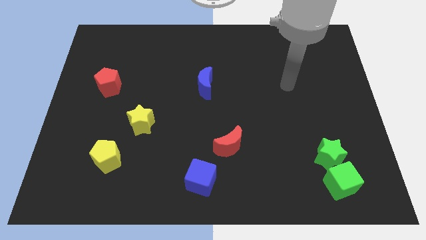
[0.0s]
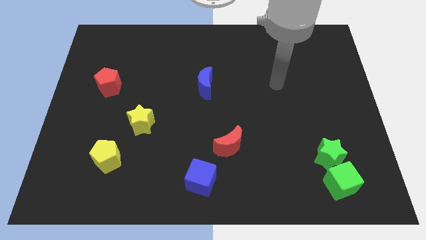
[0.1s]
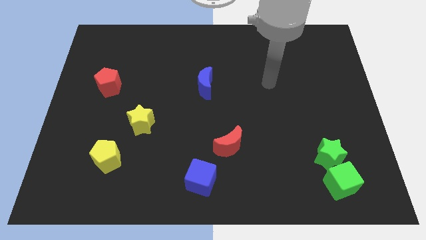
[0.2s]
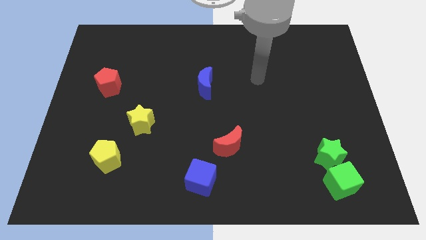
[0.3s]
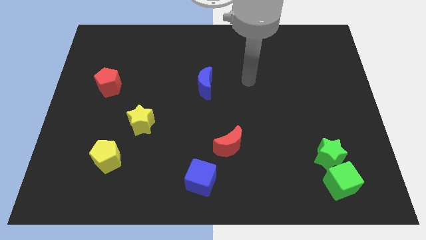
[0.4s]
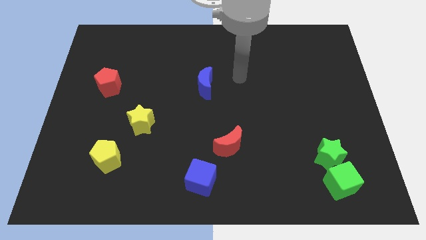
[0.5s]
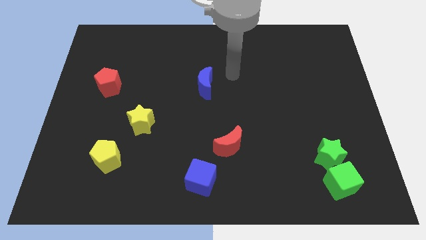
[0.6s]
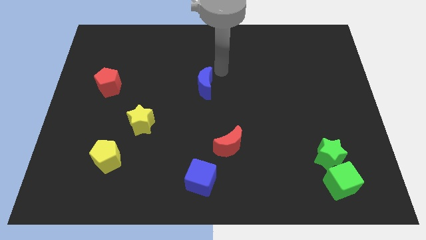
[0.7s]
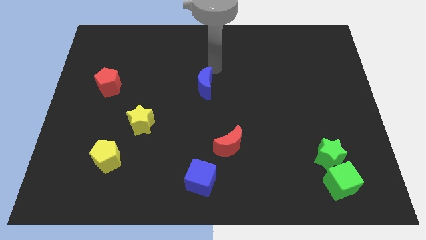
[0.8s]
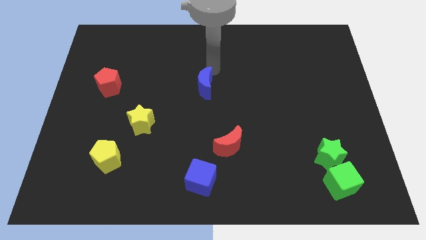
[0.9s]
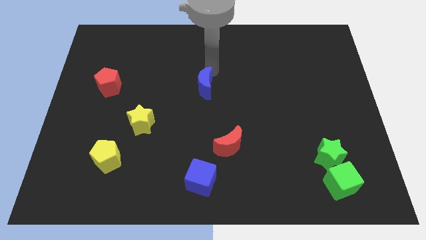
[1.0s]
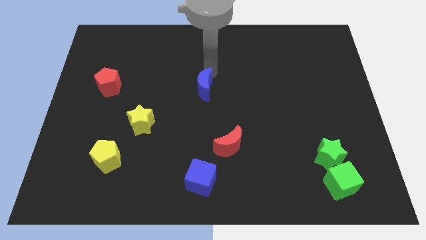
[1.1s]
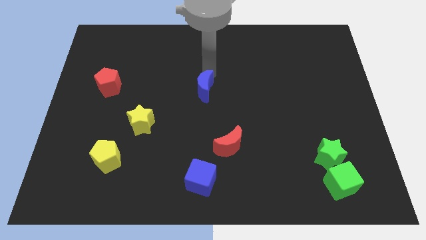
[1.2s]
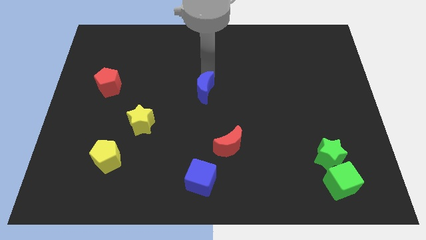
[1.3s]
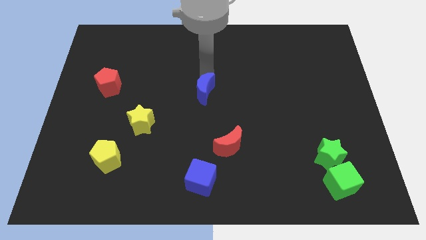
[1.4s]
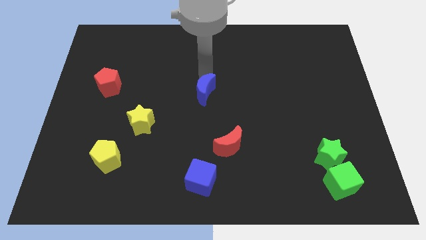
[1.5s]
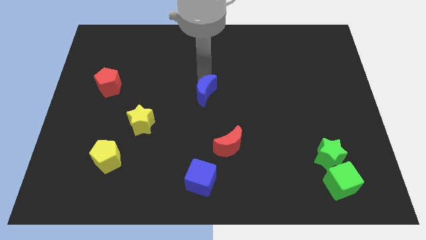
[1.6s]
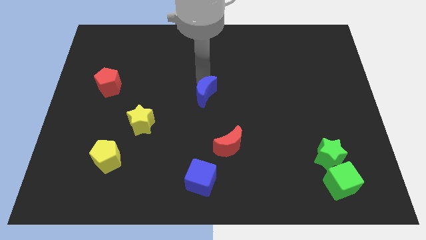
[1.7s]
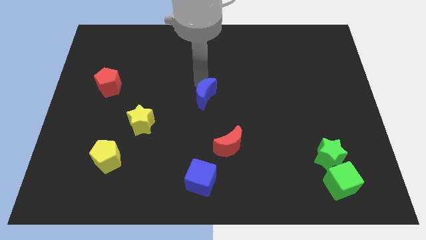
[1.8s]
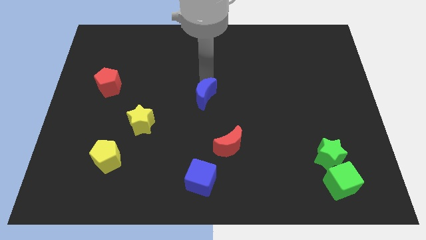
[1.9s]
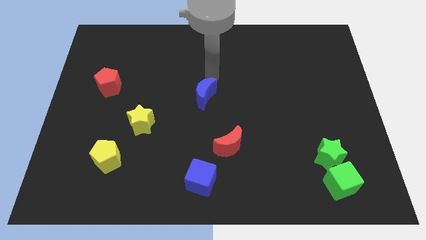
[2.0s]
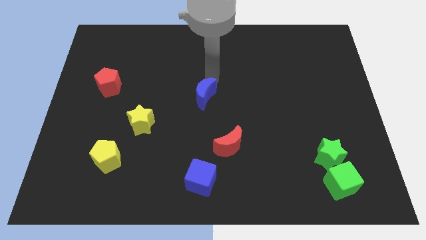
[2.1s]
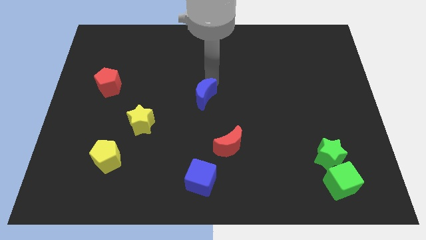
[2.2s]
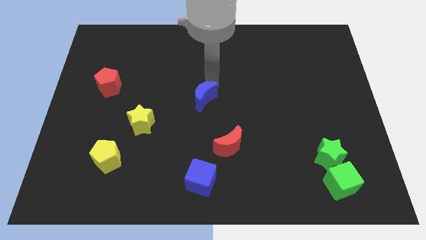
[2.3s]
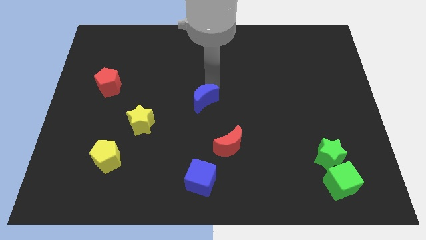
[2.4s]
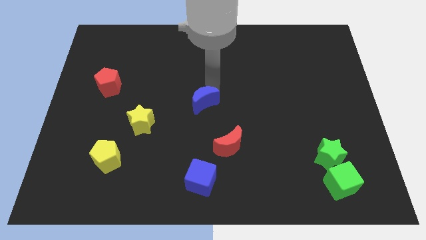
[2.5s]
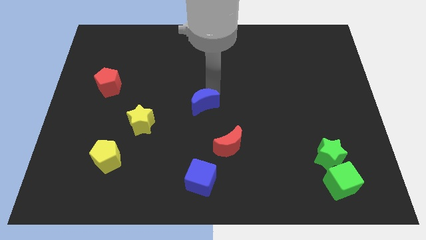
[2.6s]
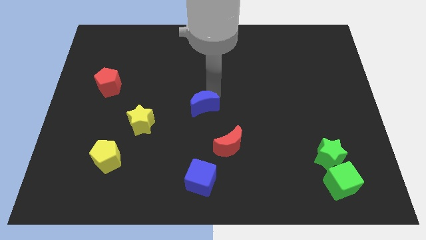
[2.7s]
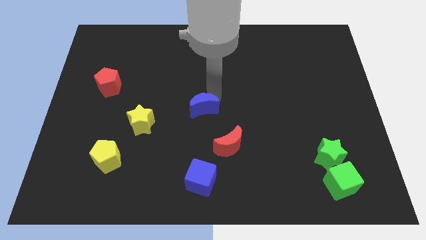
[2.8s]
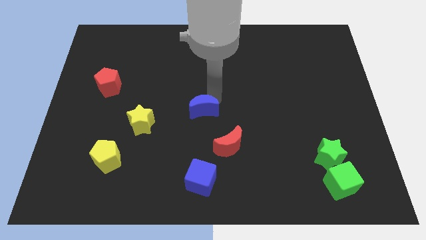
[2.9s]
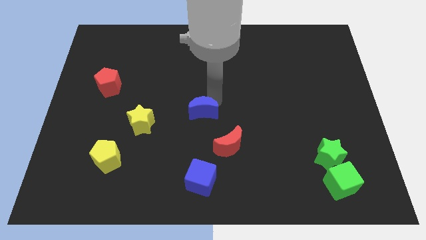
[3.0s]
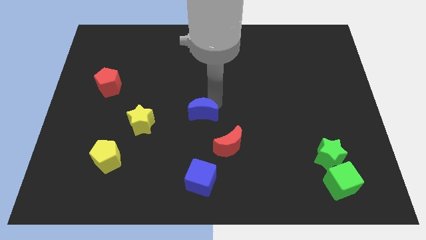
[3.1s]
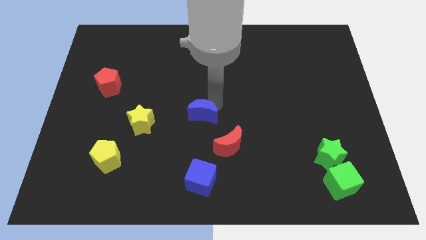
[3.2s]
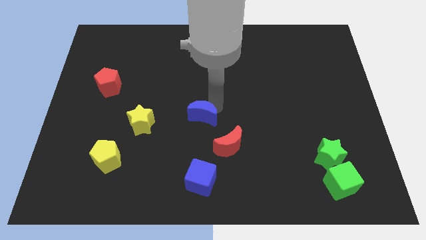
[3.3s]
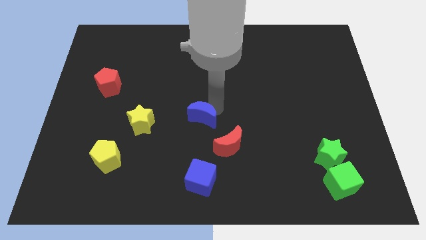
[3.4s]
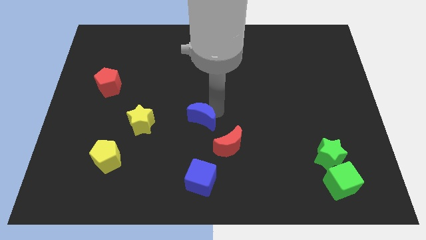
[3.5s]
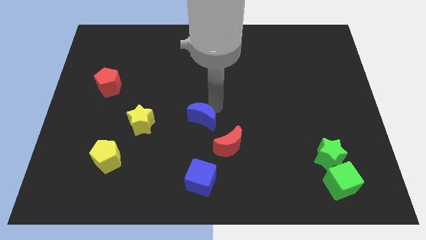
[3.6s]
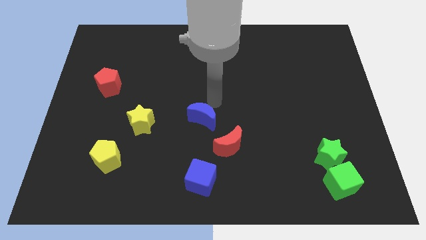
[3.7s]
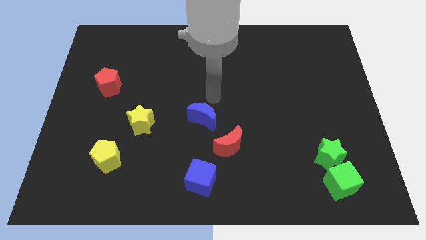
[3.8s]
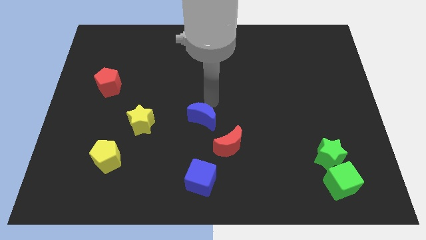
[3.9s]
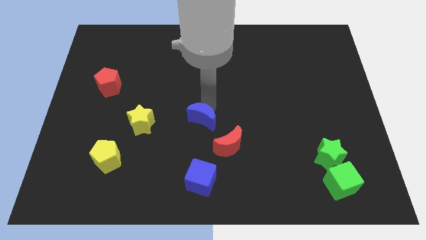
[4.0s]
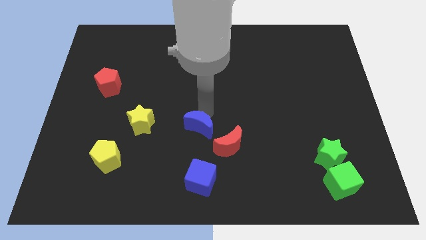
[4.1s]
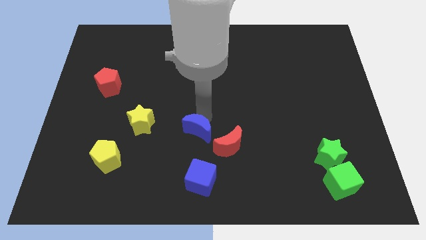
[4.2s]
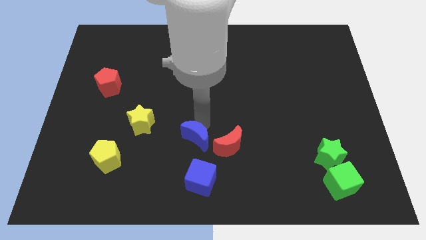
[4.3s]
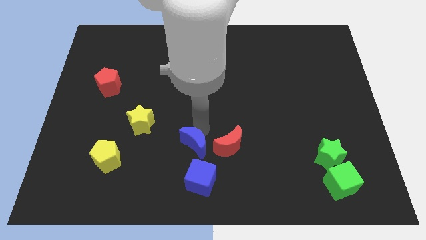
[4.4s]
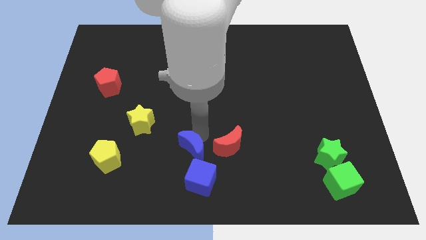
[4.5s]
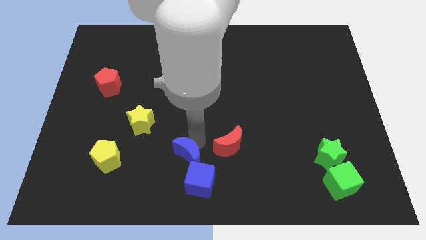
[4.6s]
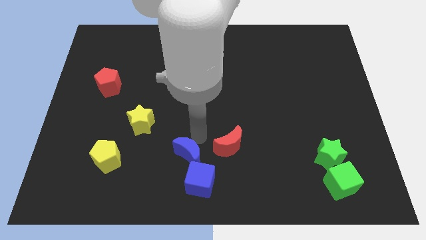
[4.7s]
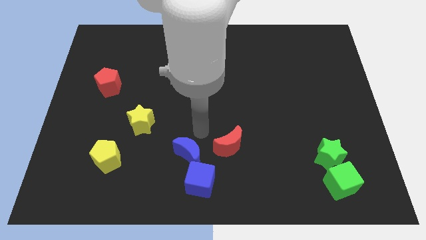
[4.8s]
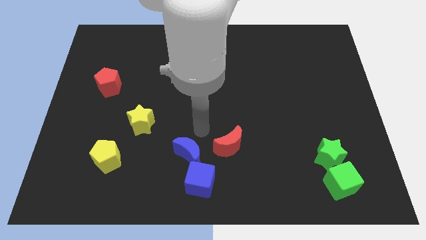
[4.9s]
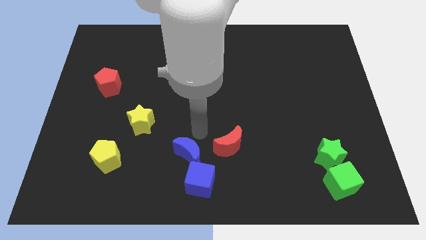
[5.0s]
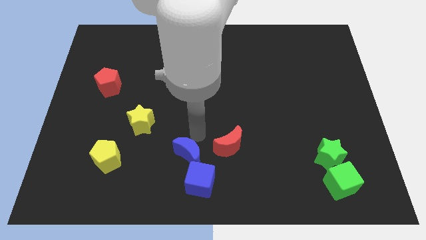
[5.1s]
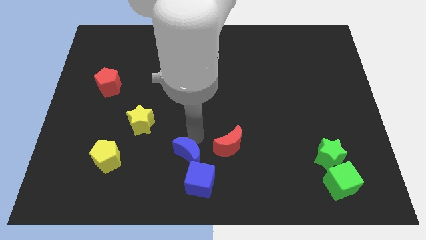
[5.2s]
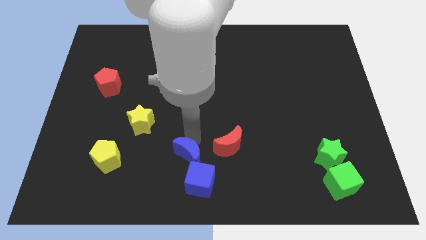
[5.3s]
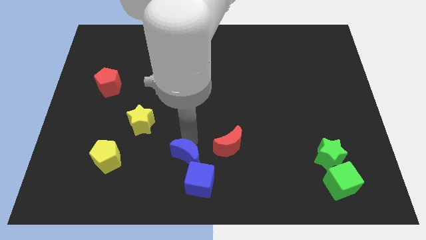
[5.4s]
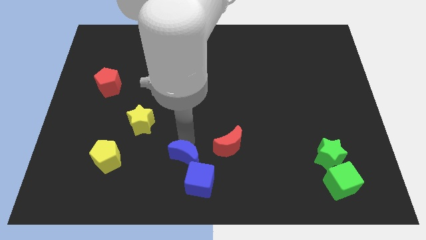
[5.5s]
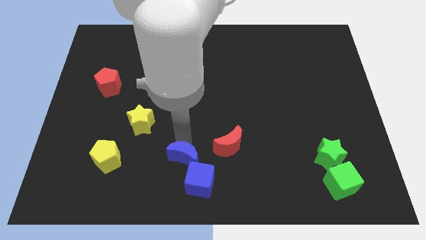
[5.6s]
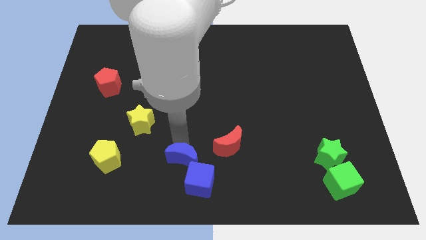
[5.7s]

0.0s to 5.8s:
put the blue moon to the bottom side
